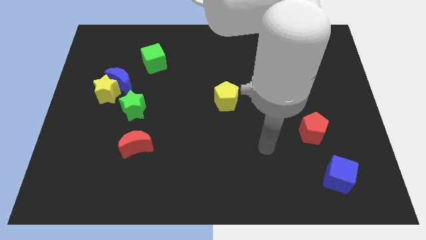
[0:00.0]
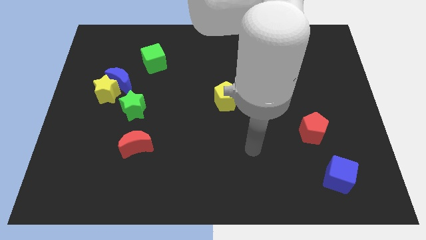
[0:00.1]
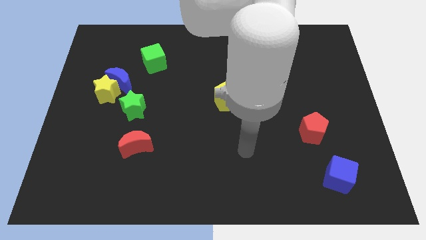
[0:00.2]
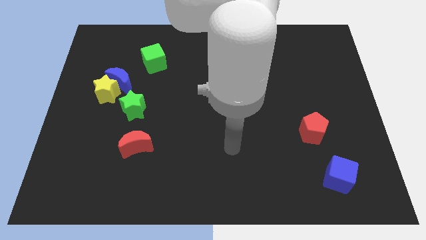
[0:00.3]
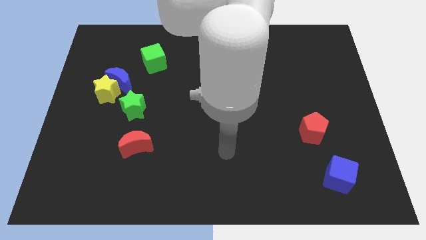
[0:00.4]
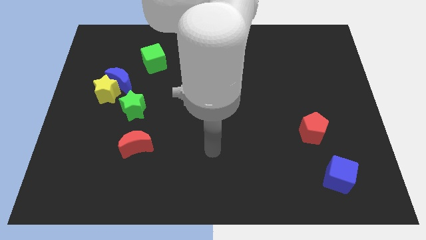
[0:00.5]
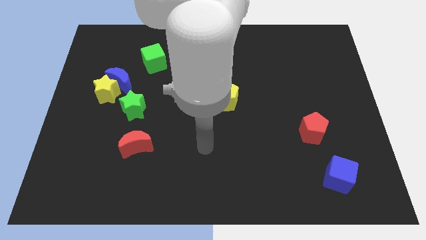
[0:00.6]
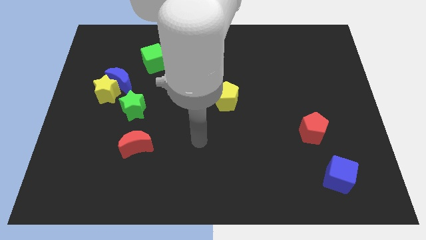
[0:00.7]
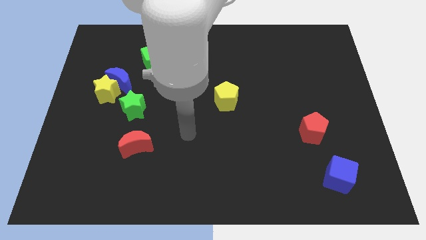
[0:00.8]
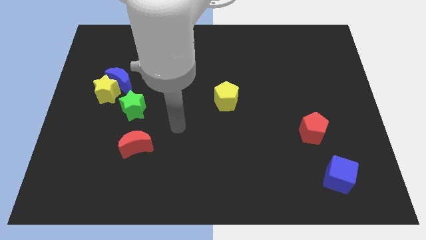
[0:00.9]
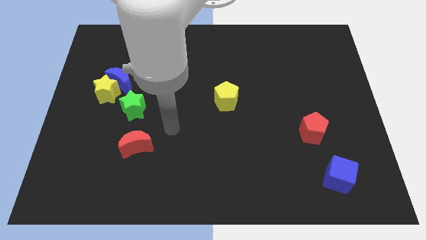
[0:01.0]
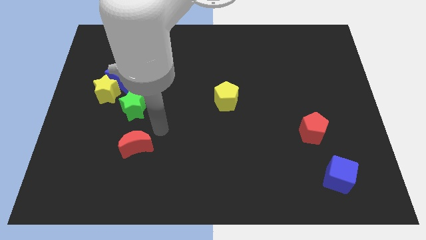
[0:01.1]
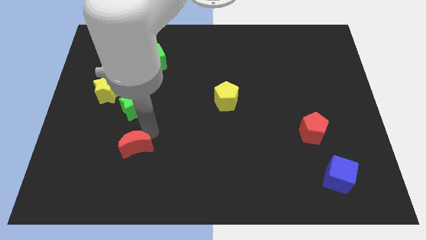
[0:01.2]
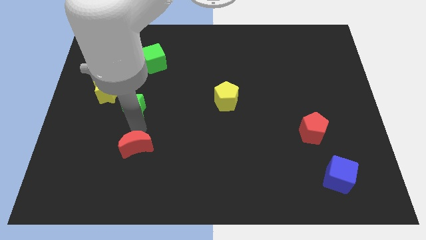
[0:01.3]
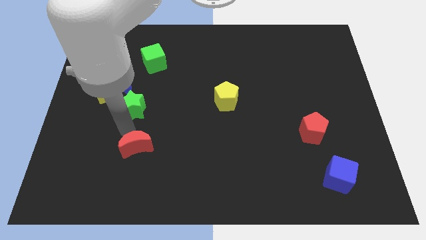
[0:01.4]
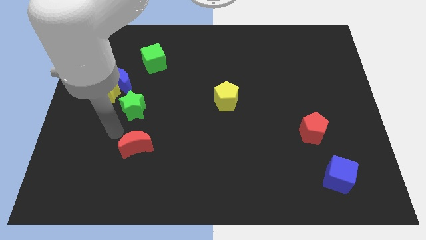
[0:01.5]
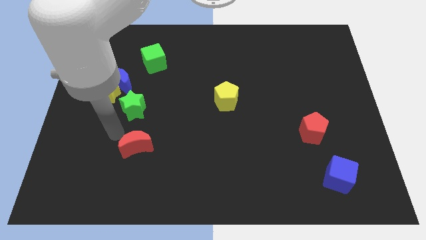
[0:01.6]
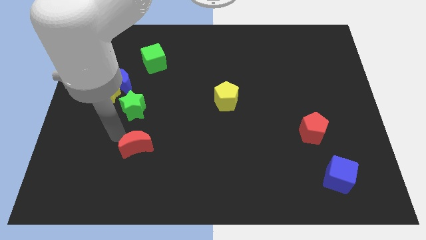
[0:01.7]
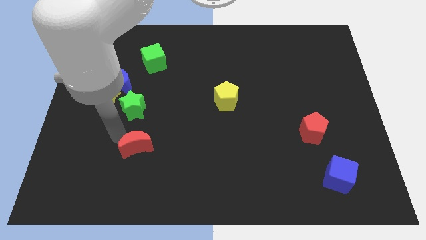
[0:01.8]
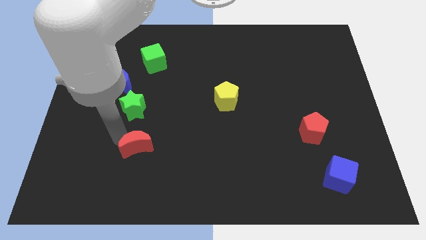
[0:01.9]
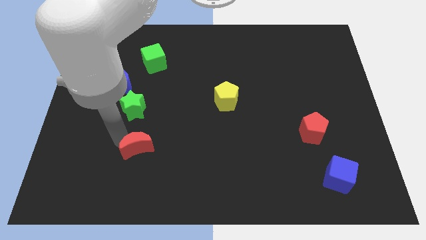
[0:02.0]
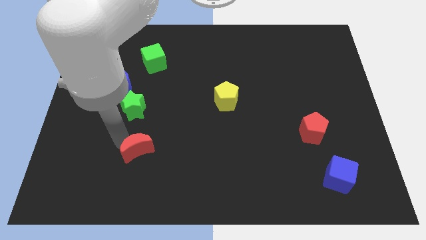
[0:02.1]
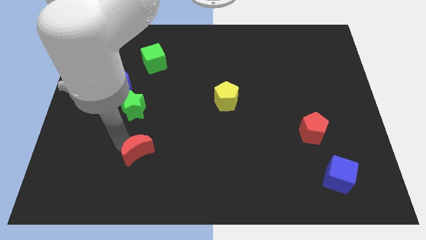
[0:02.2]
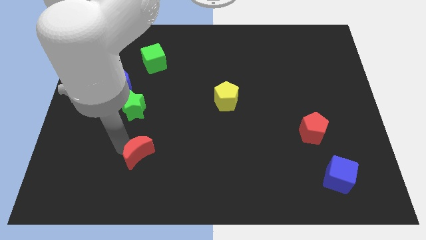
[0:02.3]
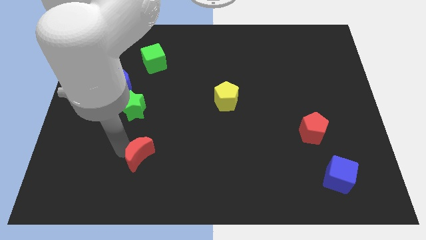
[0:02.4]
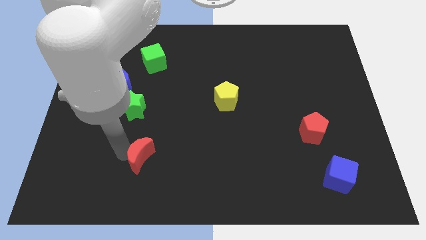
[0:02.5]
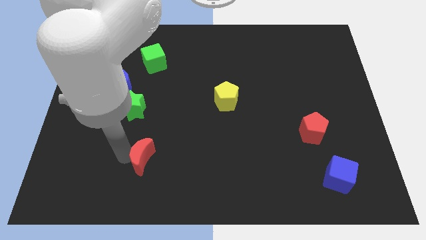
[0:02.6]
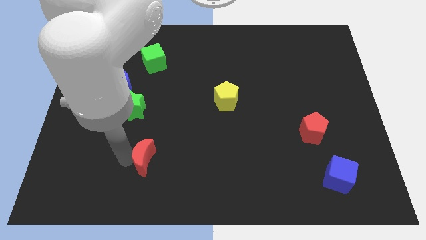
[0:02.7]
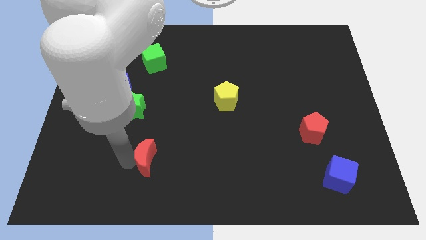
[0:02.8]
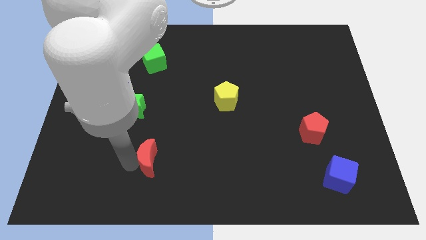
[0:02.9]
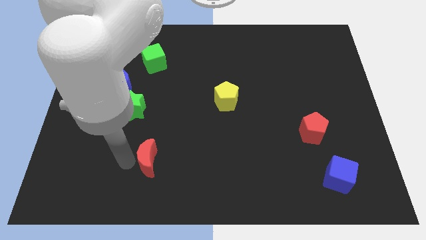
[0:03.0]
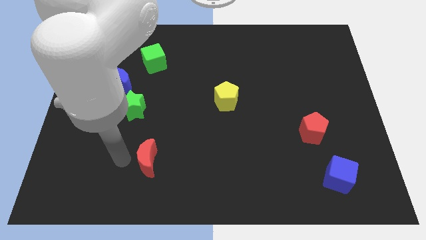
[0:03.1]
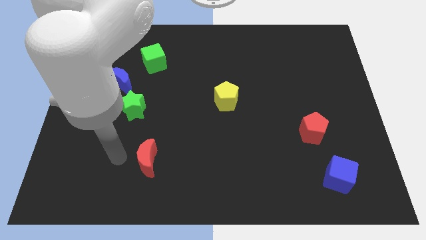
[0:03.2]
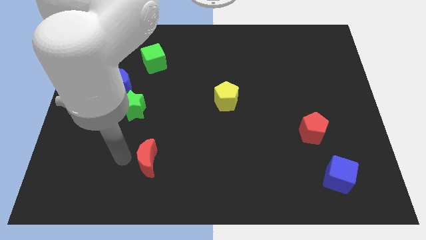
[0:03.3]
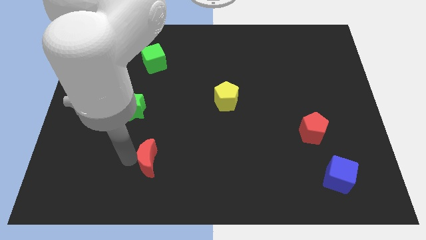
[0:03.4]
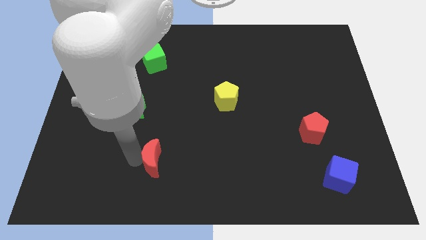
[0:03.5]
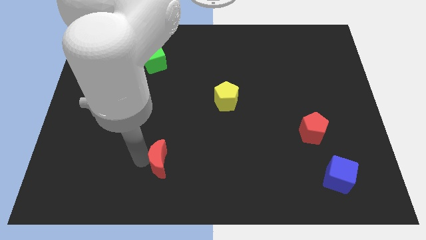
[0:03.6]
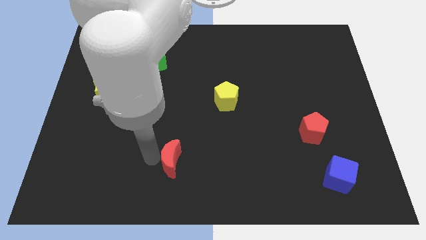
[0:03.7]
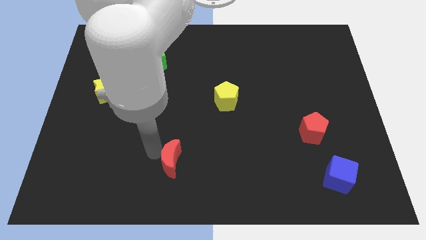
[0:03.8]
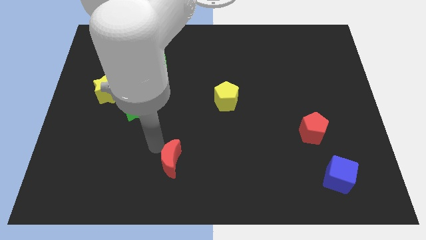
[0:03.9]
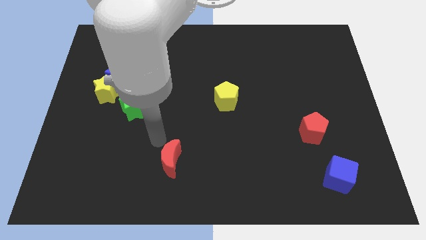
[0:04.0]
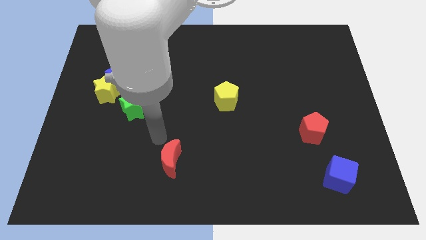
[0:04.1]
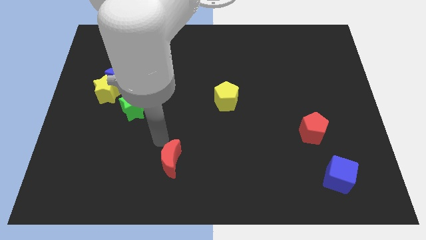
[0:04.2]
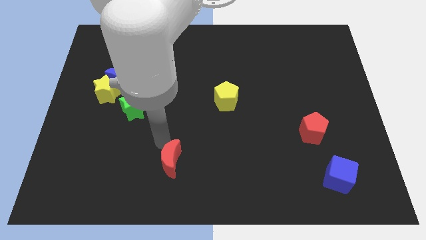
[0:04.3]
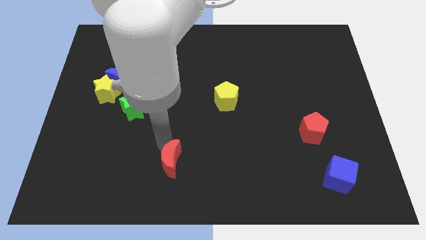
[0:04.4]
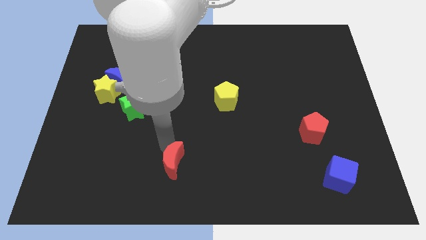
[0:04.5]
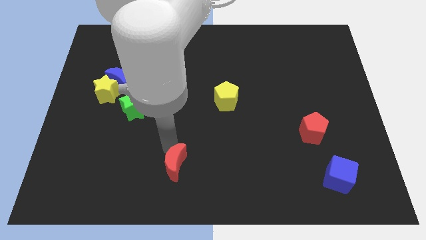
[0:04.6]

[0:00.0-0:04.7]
move the red moon to the bottom

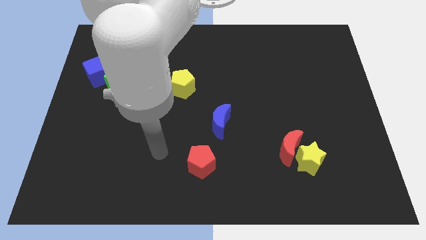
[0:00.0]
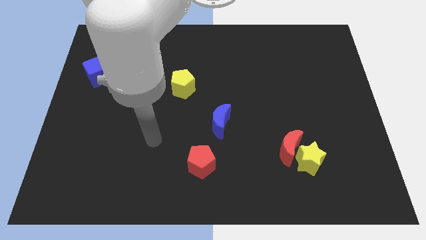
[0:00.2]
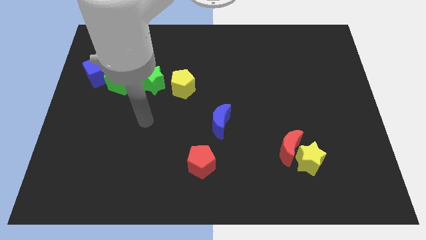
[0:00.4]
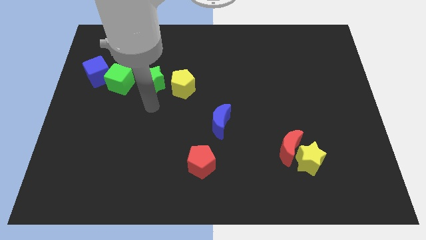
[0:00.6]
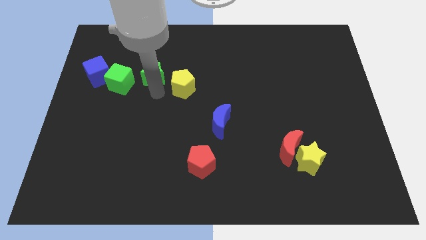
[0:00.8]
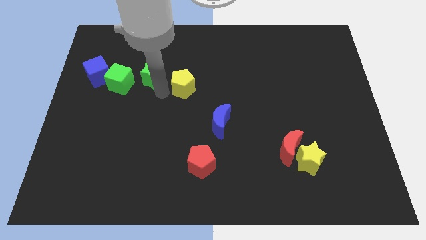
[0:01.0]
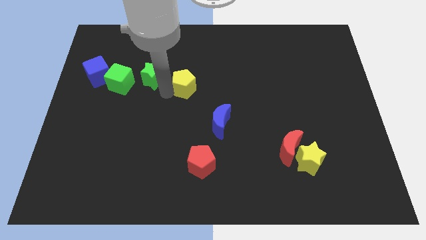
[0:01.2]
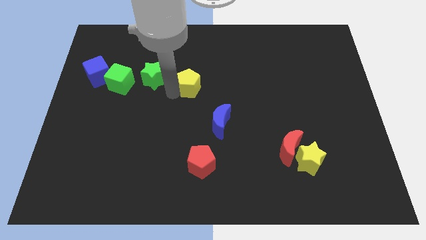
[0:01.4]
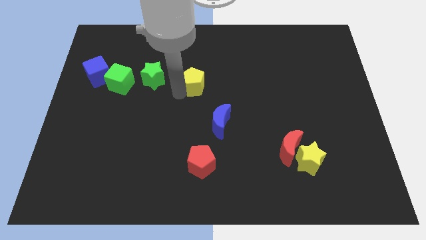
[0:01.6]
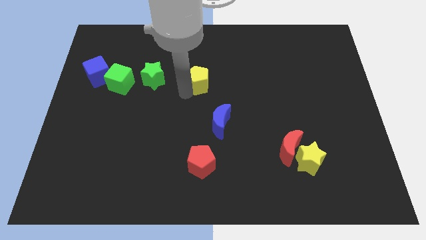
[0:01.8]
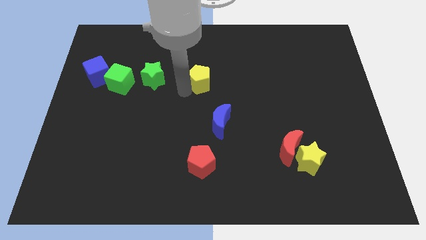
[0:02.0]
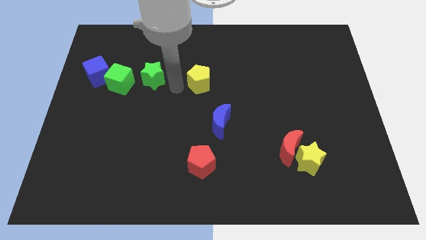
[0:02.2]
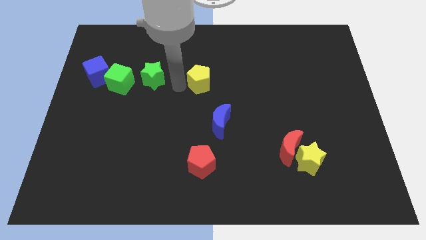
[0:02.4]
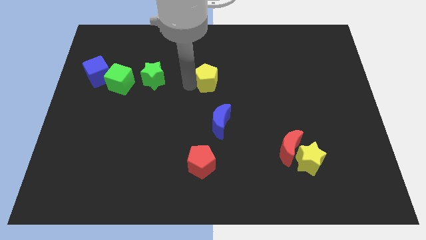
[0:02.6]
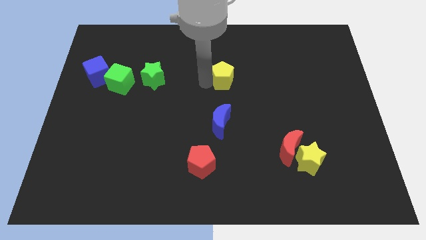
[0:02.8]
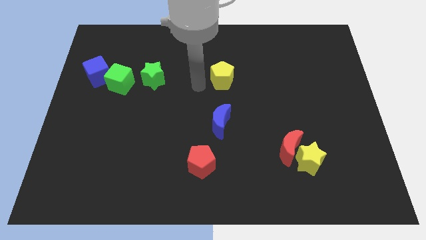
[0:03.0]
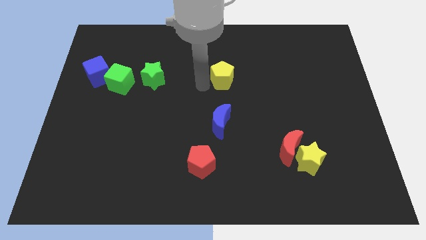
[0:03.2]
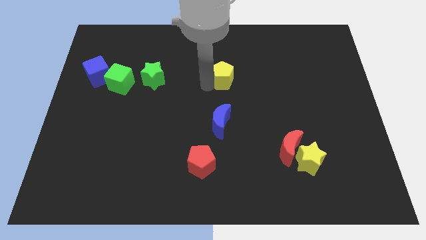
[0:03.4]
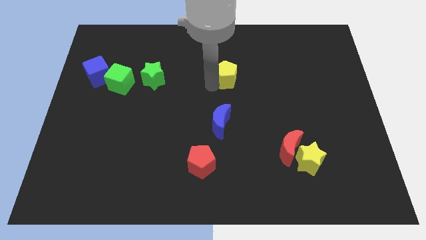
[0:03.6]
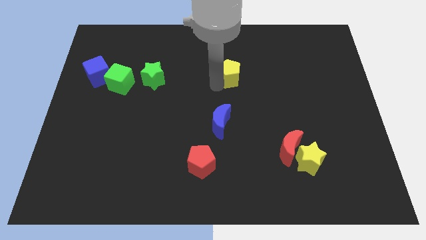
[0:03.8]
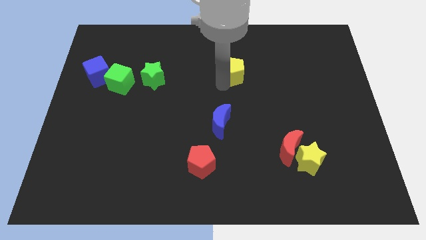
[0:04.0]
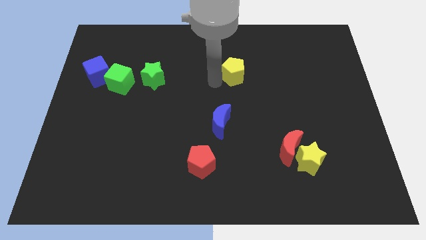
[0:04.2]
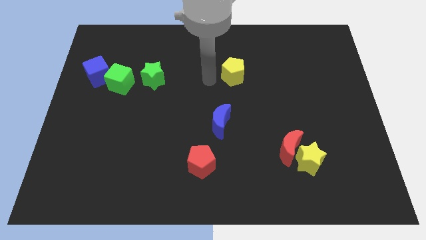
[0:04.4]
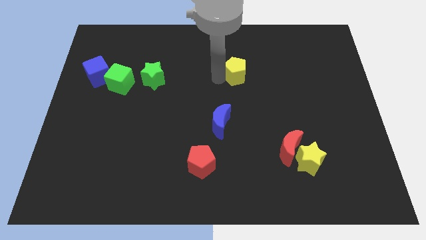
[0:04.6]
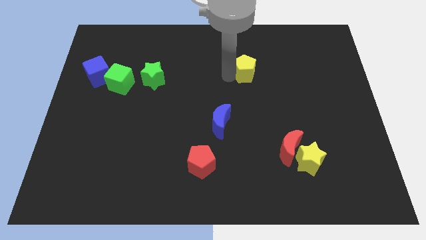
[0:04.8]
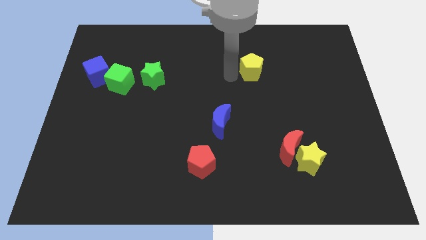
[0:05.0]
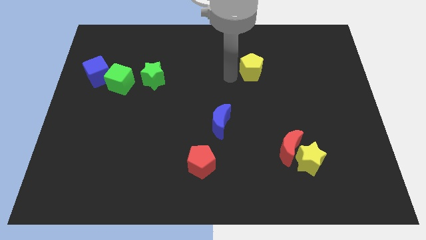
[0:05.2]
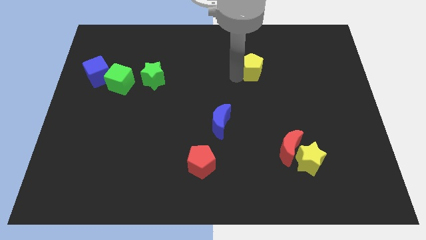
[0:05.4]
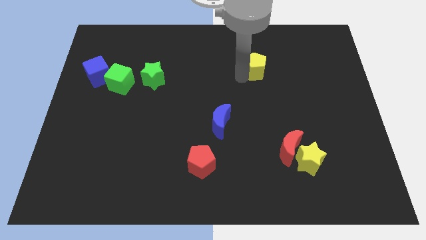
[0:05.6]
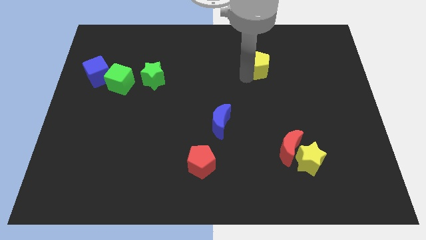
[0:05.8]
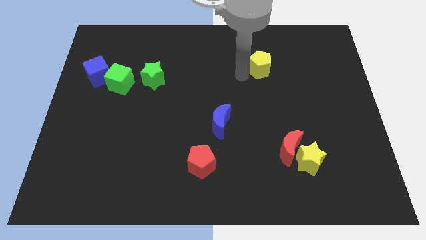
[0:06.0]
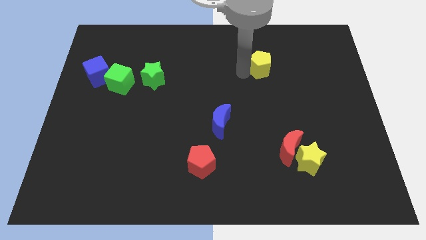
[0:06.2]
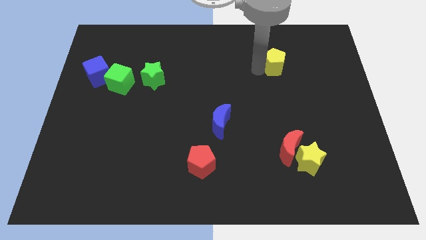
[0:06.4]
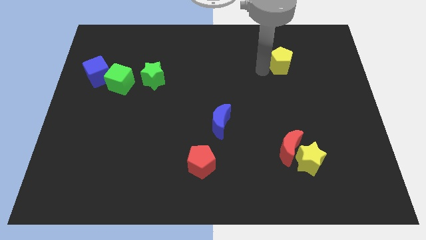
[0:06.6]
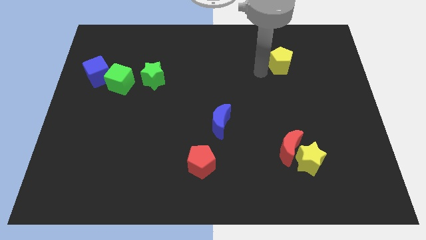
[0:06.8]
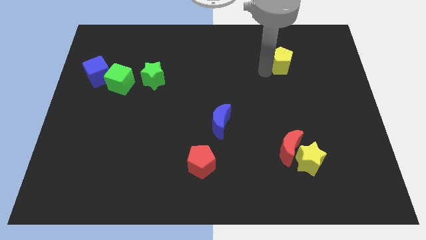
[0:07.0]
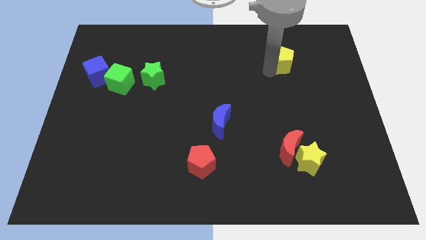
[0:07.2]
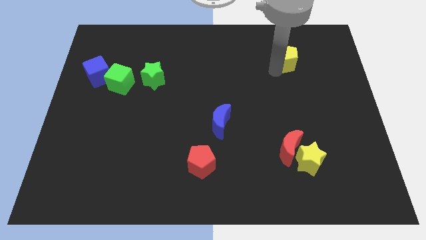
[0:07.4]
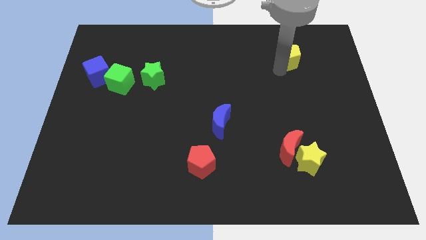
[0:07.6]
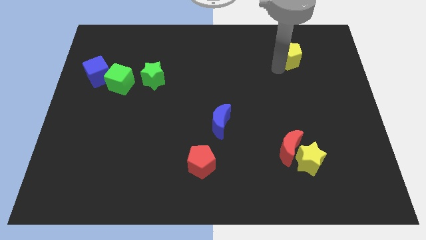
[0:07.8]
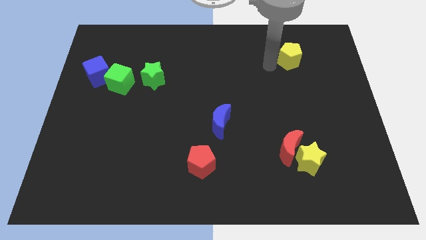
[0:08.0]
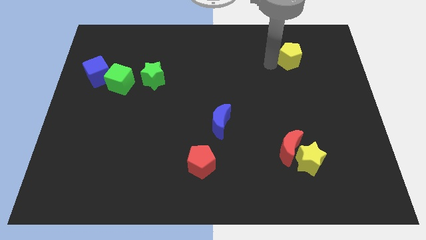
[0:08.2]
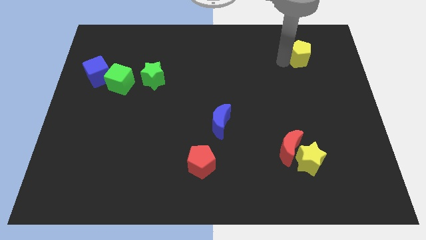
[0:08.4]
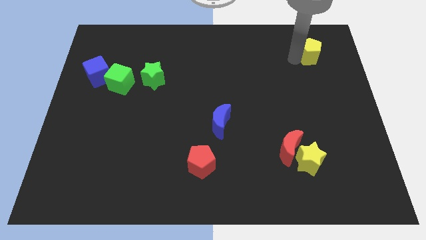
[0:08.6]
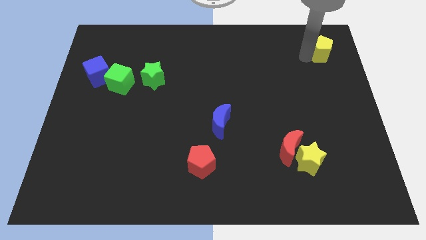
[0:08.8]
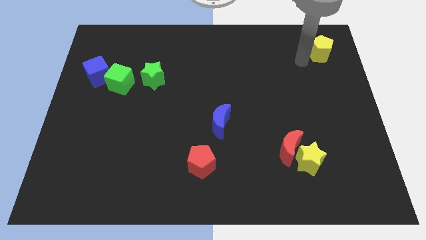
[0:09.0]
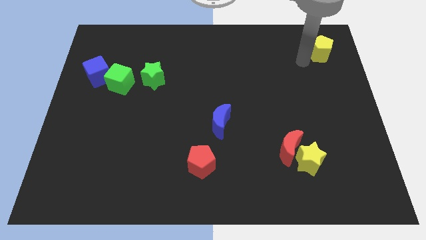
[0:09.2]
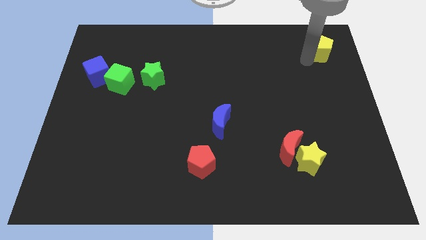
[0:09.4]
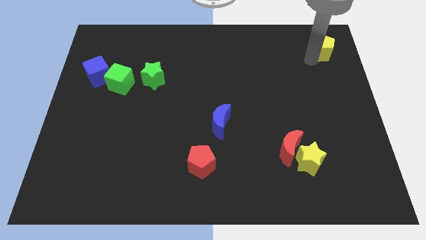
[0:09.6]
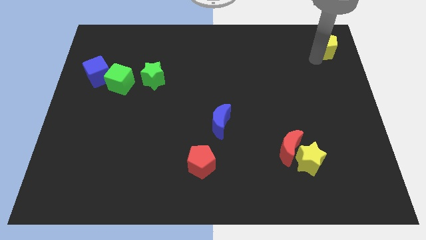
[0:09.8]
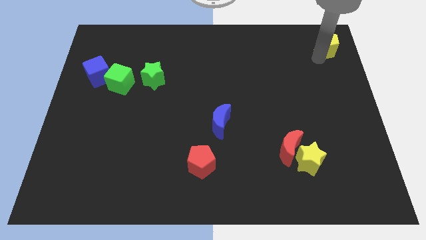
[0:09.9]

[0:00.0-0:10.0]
move the yellow pentagon to the top right of the board
